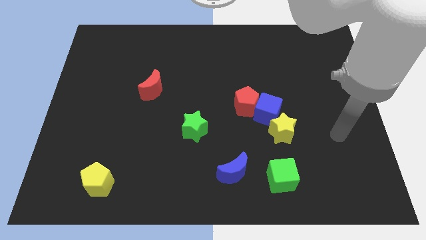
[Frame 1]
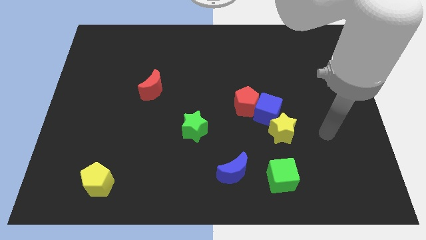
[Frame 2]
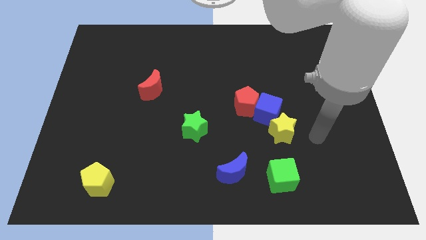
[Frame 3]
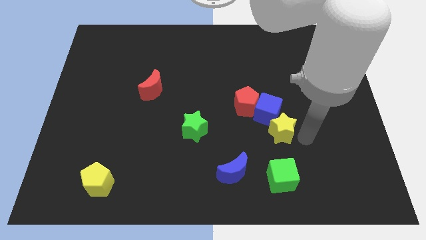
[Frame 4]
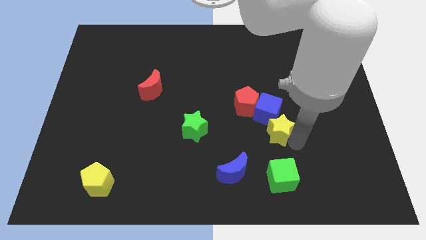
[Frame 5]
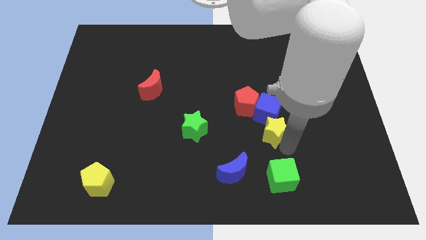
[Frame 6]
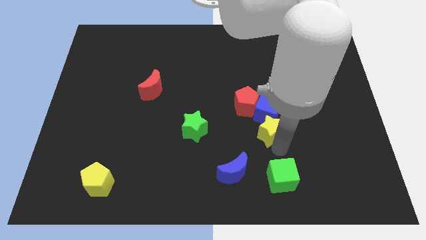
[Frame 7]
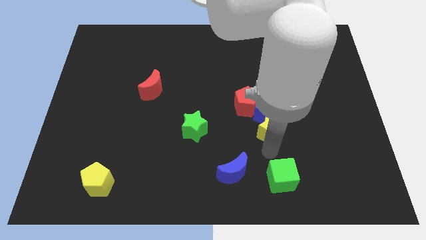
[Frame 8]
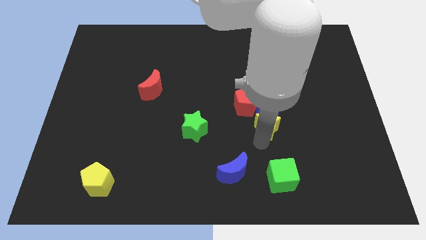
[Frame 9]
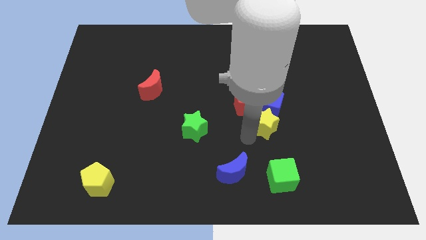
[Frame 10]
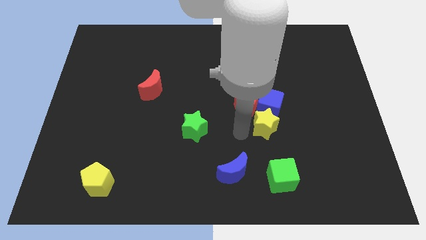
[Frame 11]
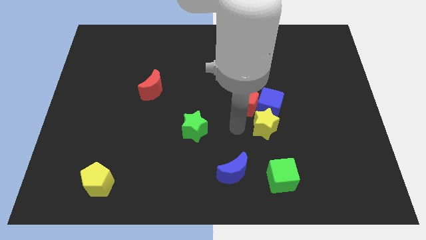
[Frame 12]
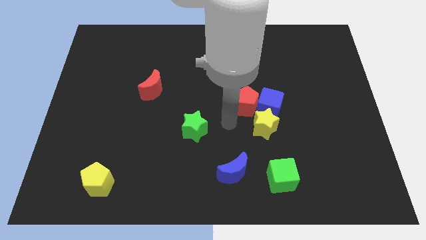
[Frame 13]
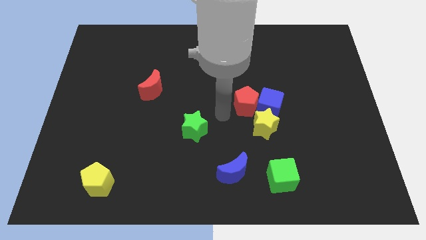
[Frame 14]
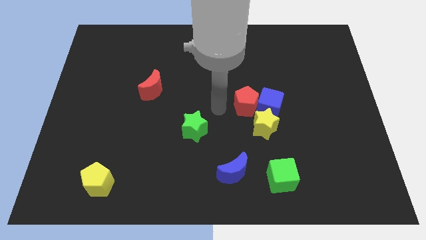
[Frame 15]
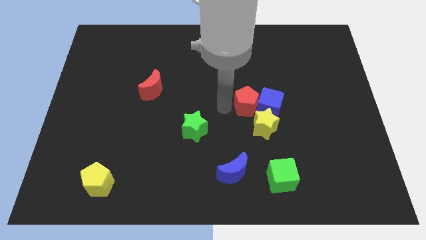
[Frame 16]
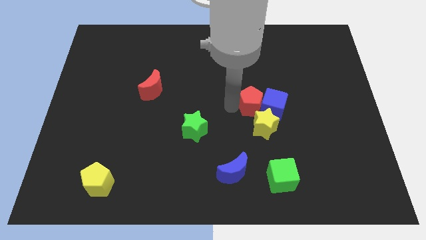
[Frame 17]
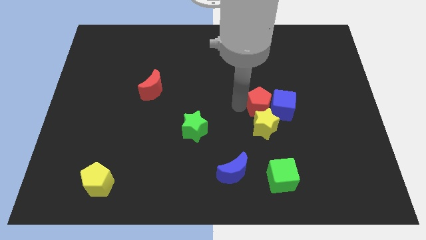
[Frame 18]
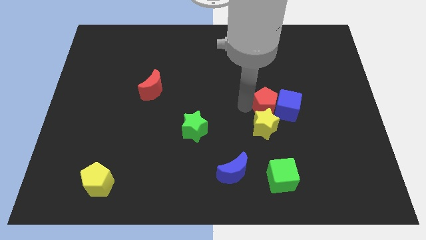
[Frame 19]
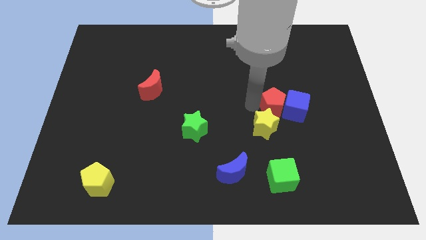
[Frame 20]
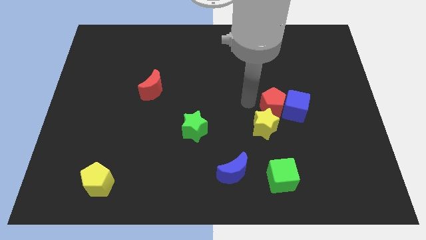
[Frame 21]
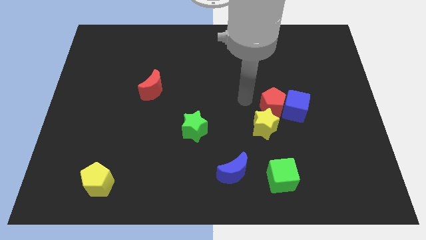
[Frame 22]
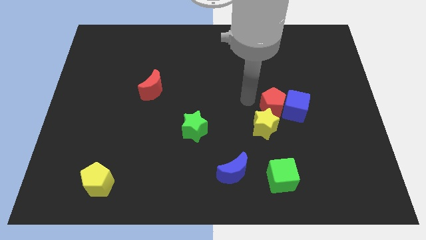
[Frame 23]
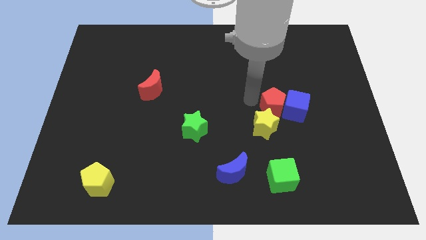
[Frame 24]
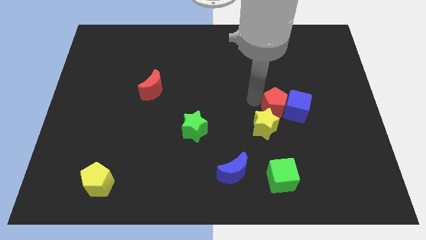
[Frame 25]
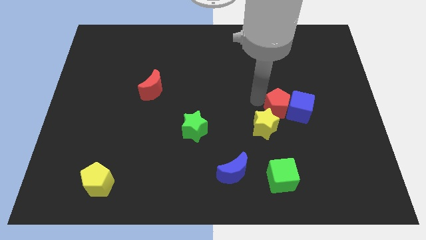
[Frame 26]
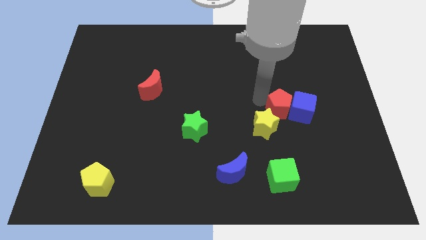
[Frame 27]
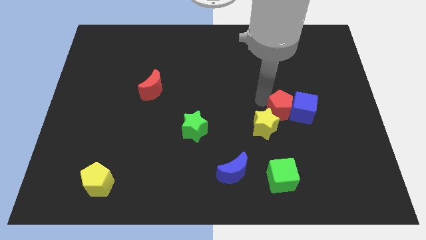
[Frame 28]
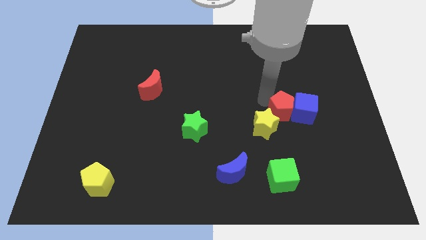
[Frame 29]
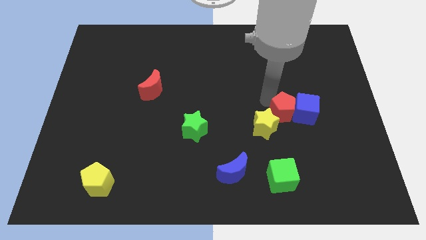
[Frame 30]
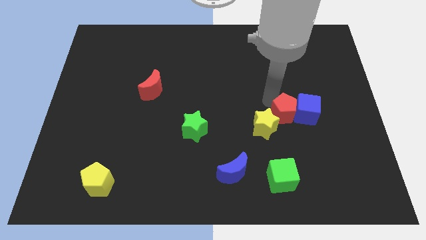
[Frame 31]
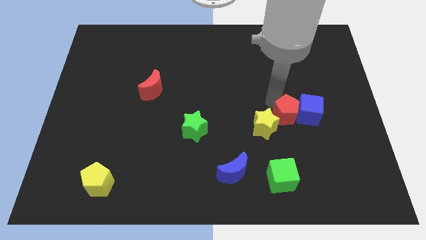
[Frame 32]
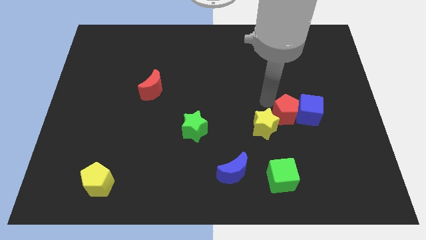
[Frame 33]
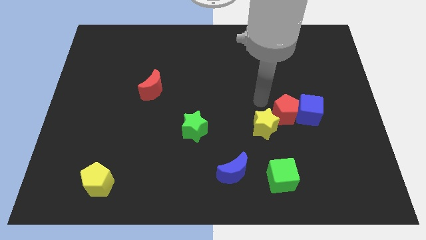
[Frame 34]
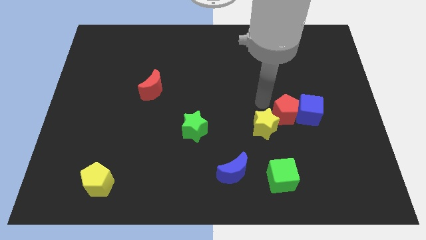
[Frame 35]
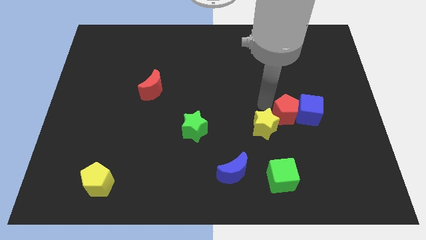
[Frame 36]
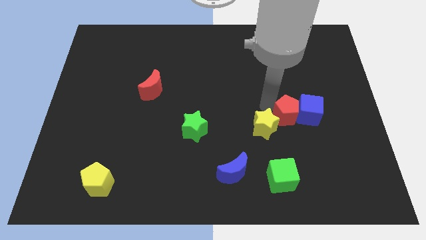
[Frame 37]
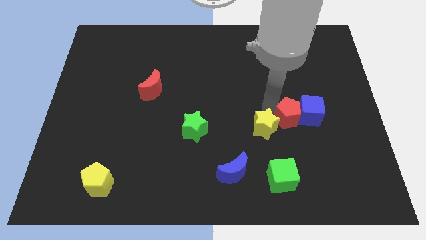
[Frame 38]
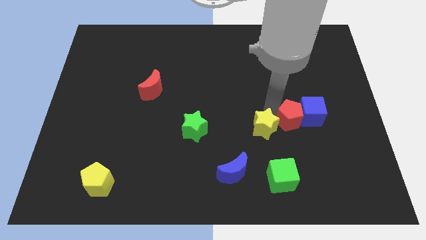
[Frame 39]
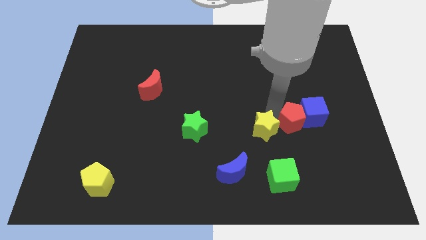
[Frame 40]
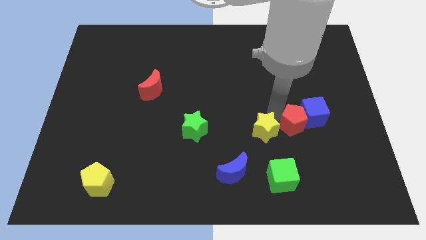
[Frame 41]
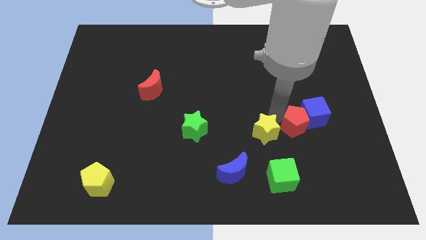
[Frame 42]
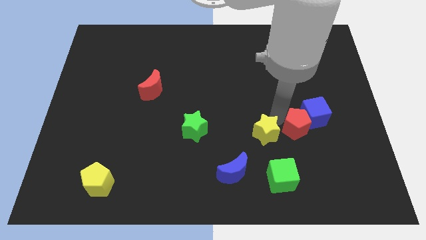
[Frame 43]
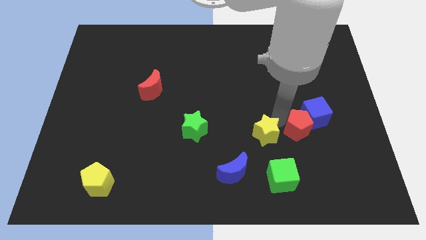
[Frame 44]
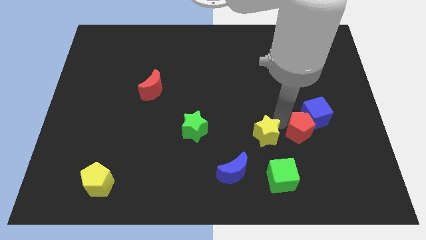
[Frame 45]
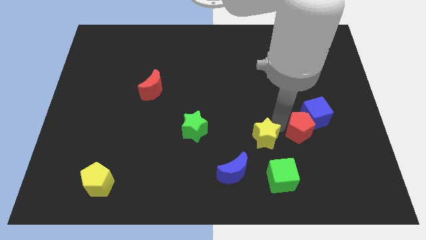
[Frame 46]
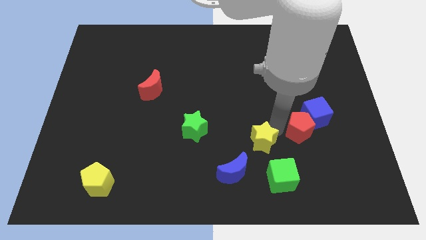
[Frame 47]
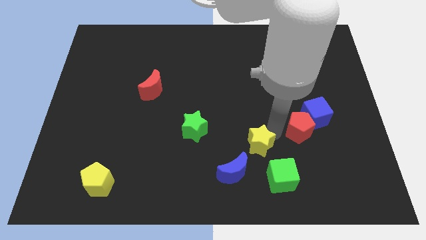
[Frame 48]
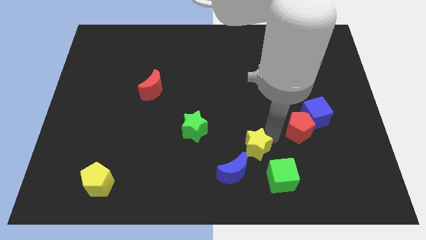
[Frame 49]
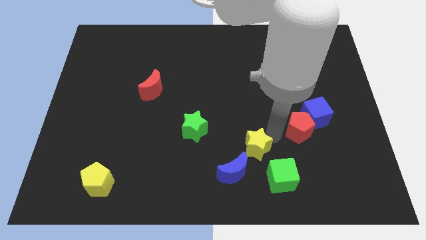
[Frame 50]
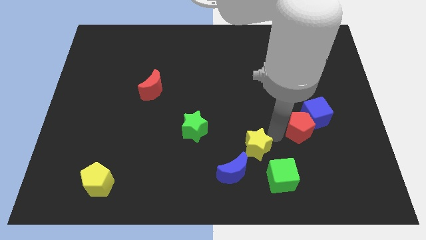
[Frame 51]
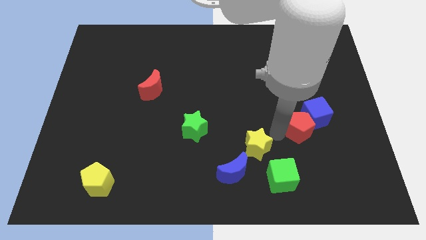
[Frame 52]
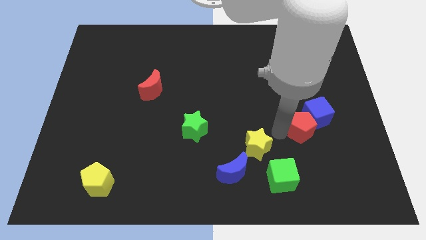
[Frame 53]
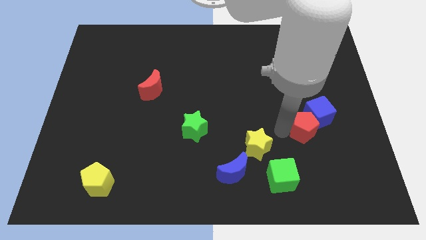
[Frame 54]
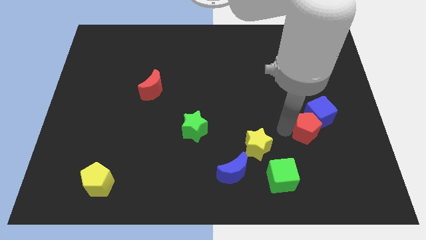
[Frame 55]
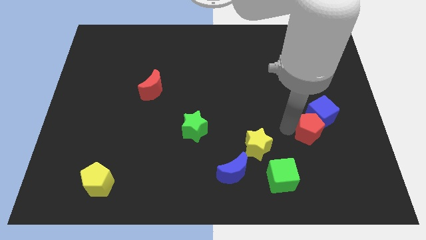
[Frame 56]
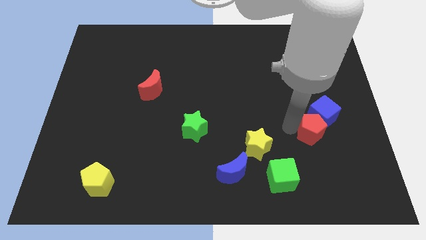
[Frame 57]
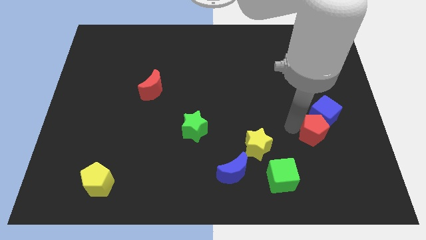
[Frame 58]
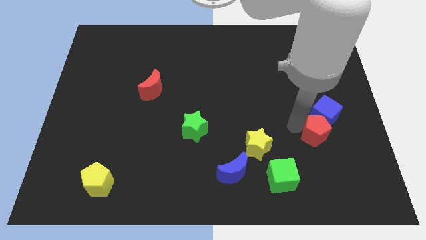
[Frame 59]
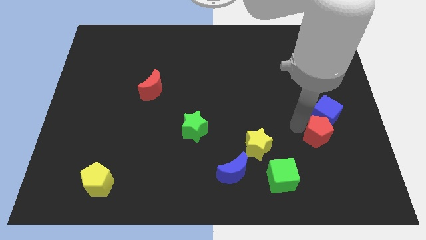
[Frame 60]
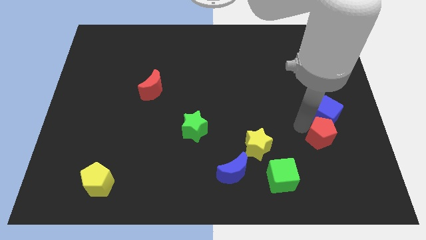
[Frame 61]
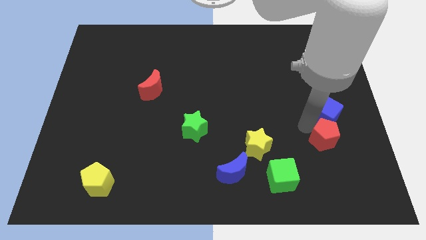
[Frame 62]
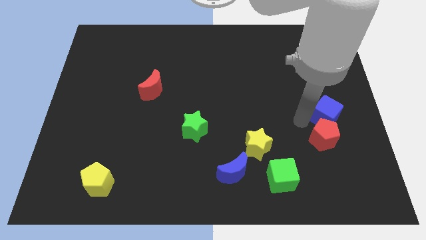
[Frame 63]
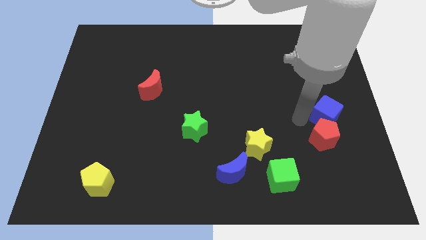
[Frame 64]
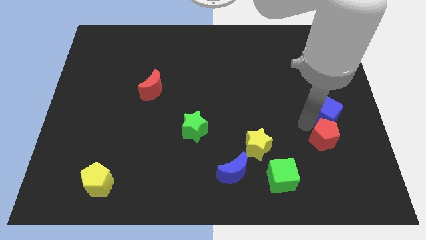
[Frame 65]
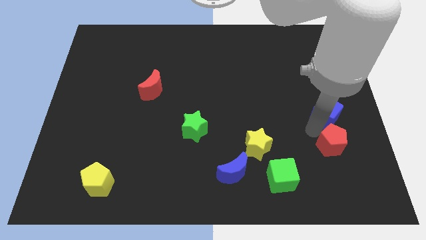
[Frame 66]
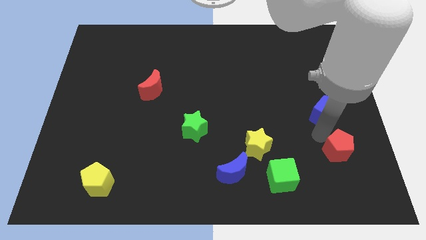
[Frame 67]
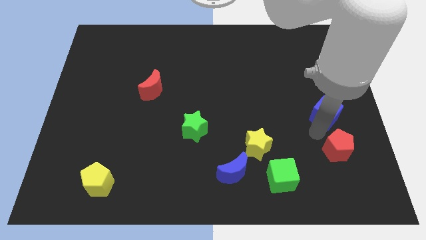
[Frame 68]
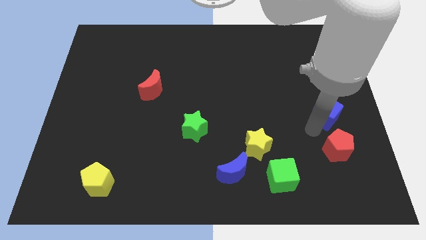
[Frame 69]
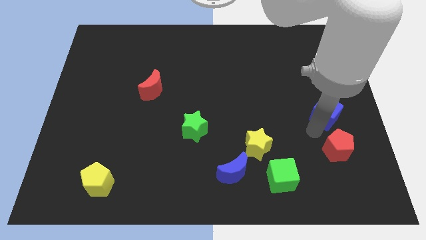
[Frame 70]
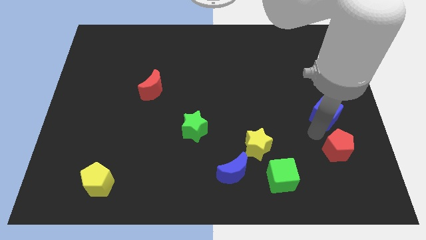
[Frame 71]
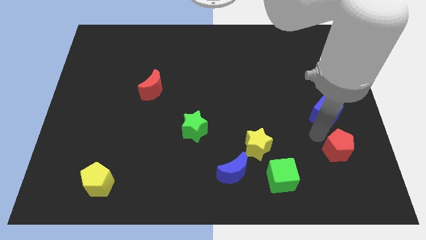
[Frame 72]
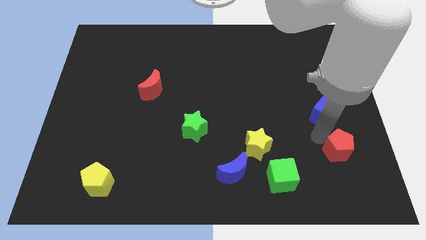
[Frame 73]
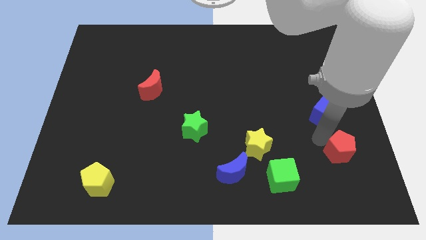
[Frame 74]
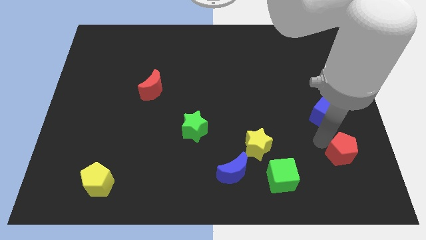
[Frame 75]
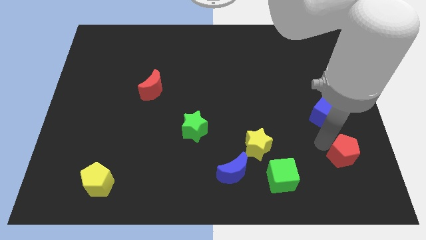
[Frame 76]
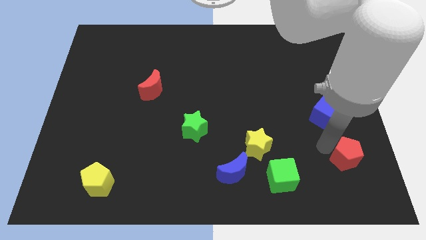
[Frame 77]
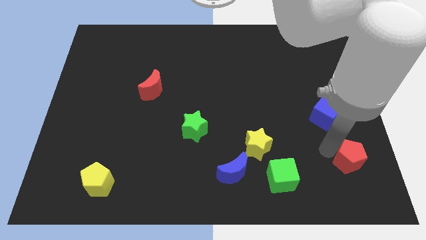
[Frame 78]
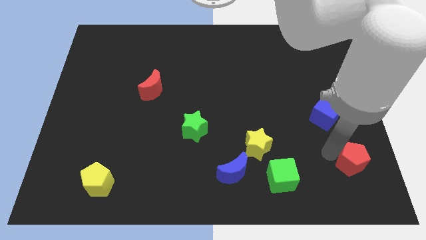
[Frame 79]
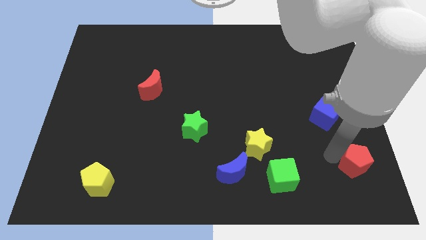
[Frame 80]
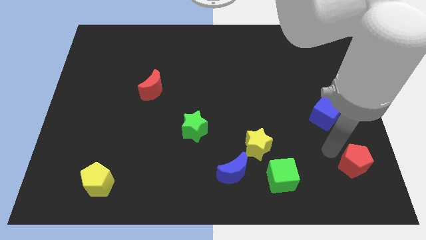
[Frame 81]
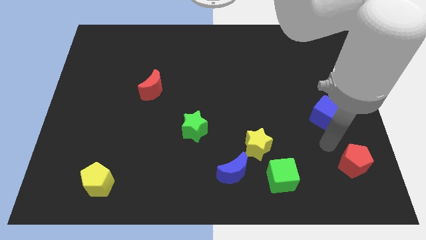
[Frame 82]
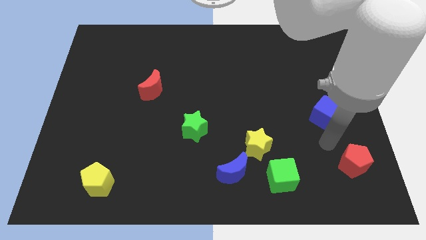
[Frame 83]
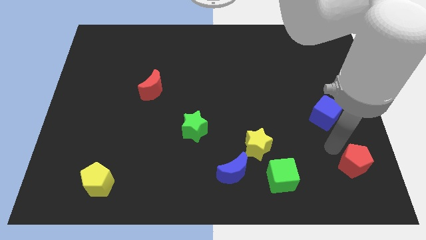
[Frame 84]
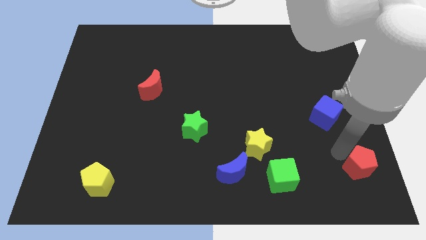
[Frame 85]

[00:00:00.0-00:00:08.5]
slide the red pentagon to the bottom right
